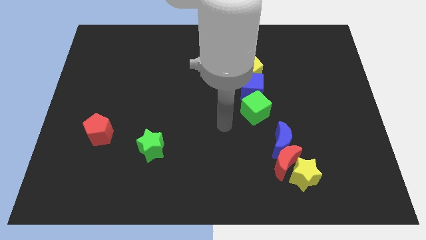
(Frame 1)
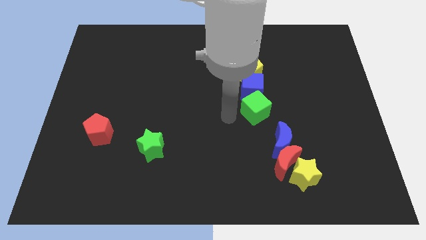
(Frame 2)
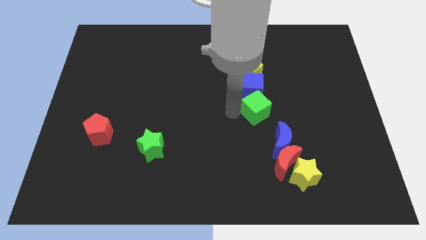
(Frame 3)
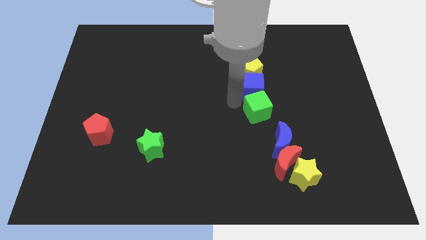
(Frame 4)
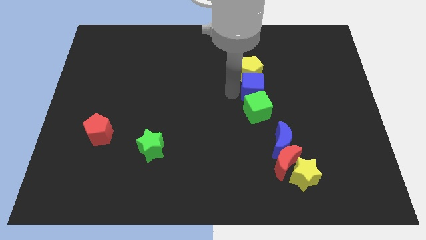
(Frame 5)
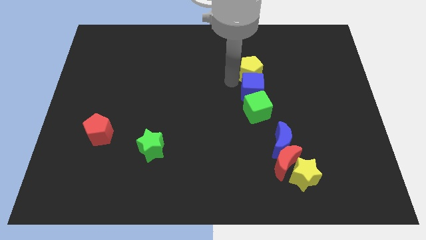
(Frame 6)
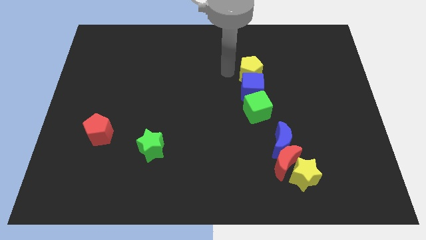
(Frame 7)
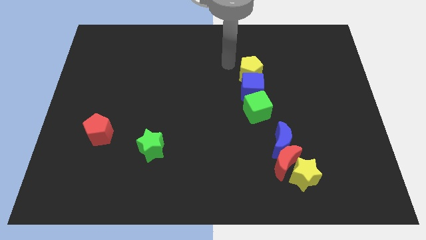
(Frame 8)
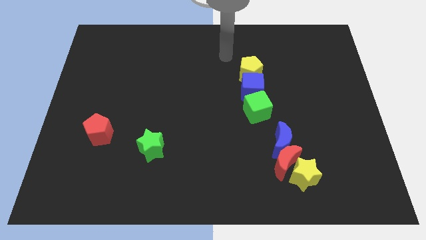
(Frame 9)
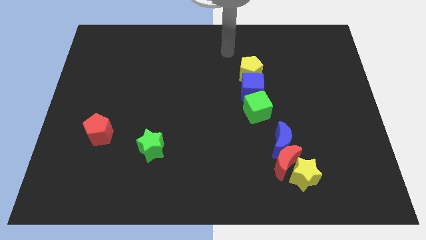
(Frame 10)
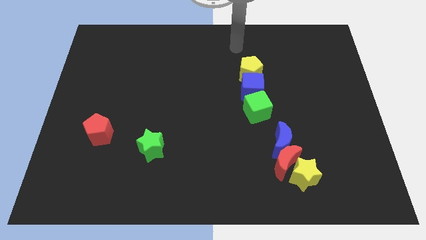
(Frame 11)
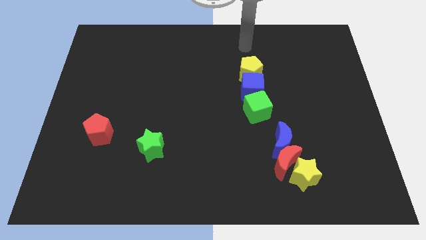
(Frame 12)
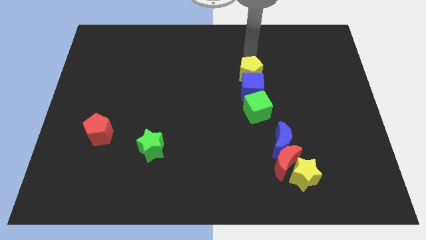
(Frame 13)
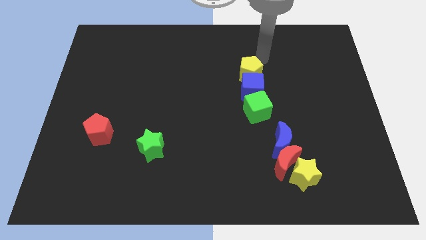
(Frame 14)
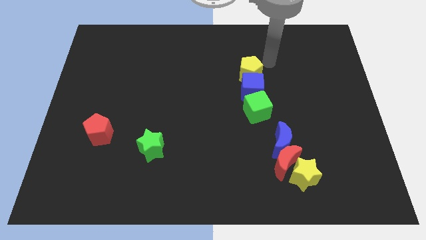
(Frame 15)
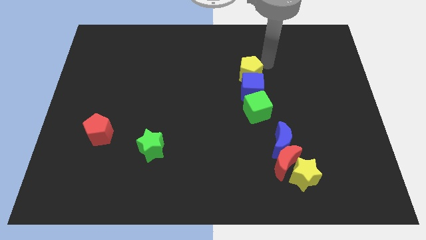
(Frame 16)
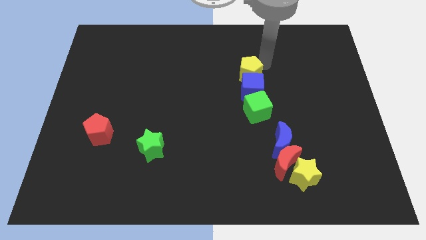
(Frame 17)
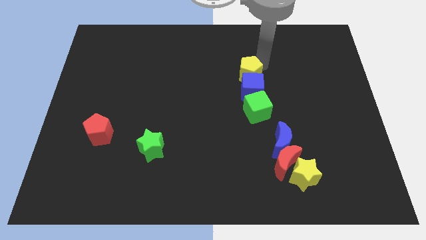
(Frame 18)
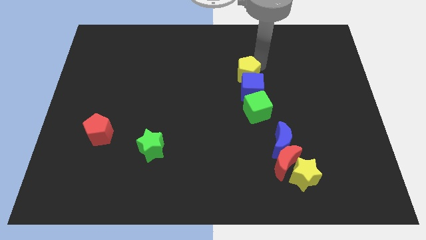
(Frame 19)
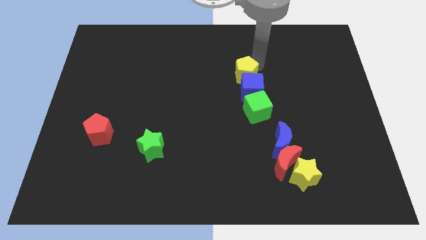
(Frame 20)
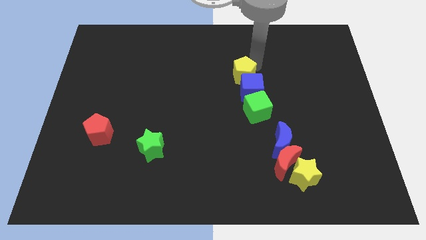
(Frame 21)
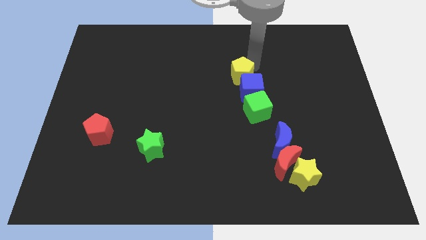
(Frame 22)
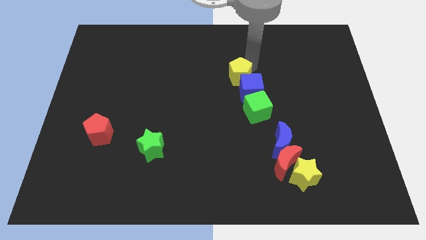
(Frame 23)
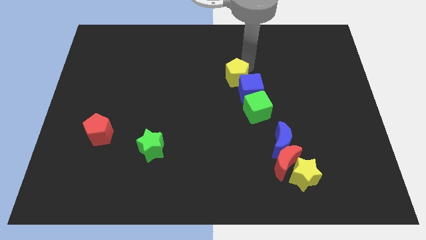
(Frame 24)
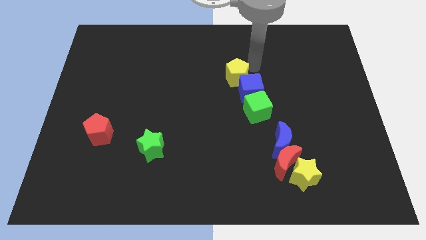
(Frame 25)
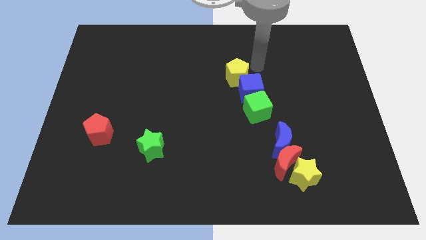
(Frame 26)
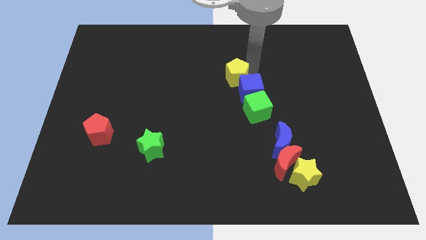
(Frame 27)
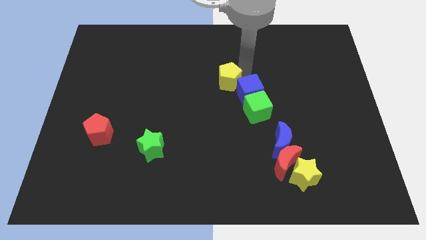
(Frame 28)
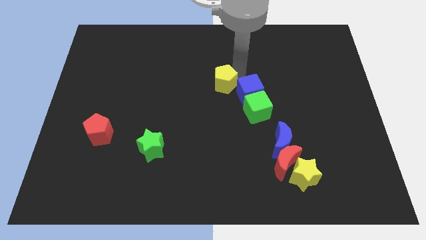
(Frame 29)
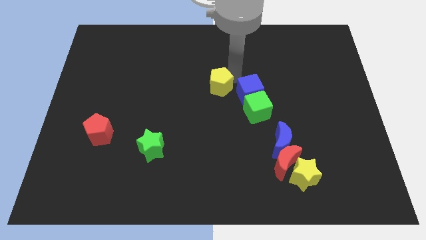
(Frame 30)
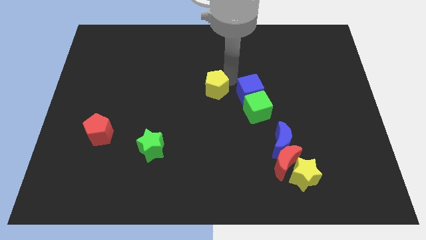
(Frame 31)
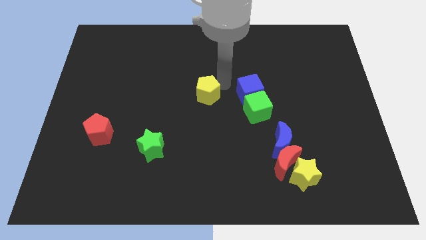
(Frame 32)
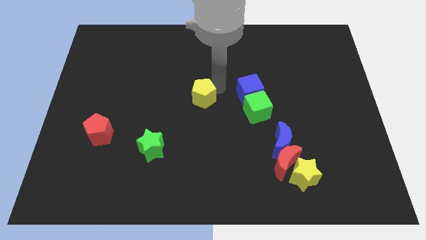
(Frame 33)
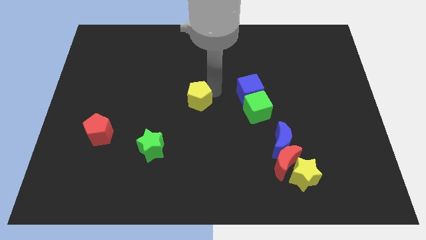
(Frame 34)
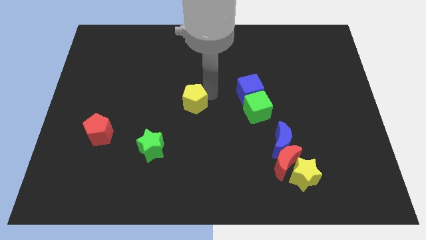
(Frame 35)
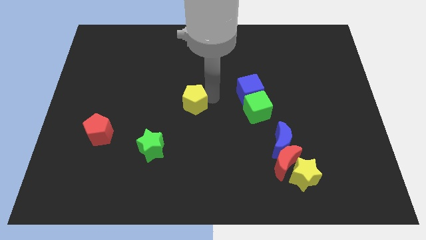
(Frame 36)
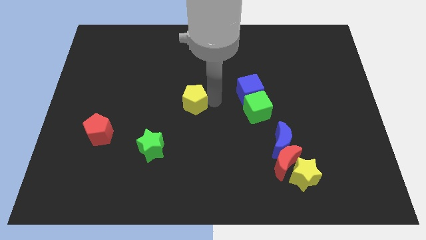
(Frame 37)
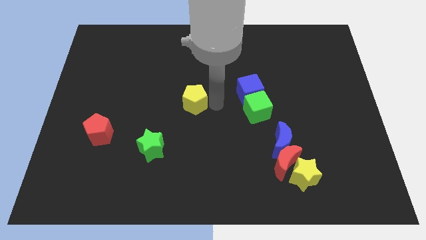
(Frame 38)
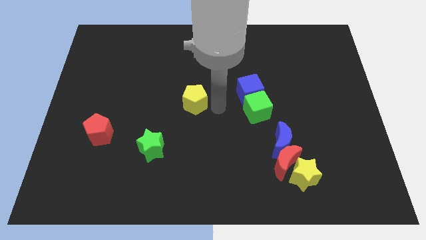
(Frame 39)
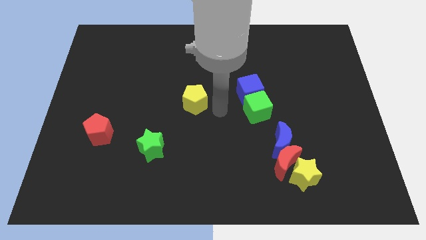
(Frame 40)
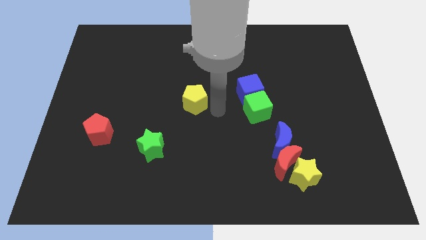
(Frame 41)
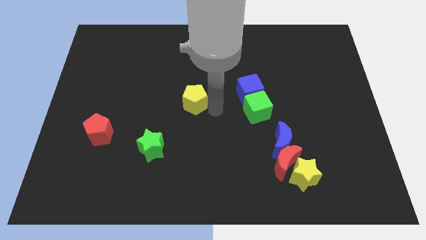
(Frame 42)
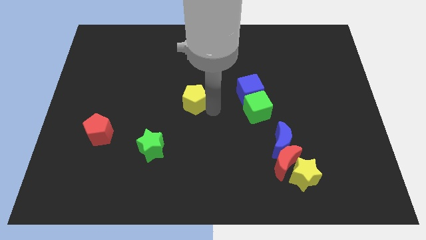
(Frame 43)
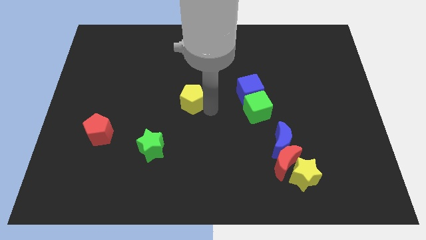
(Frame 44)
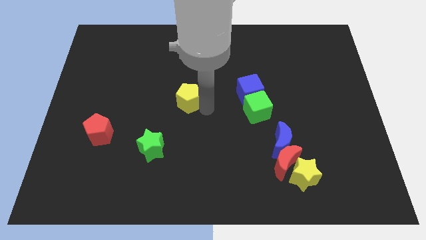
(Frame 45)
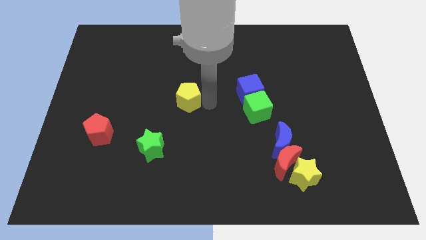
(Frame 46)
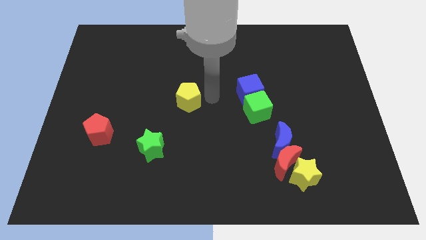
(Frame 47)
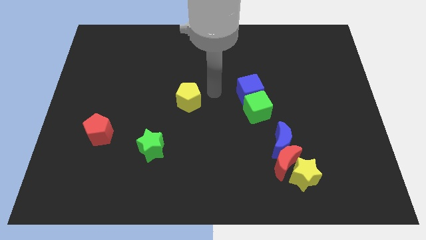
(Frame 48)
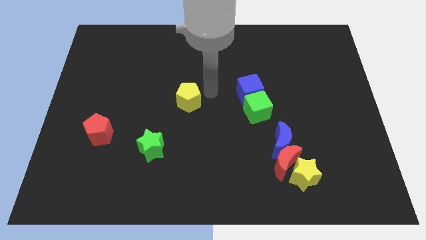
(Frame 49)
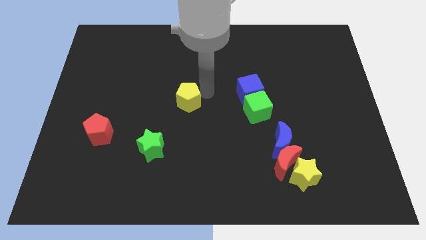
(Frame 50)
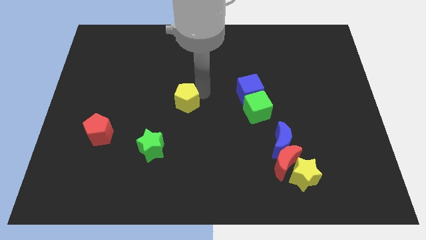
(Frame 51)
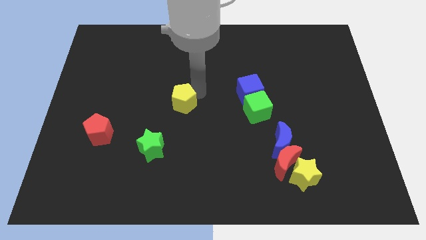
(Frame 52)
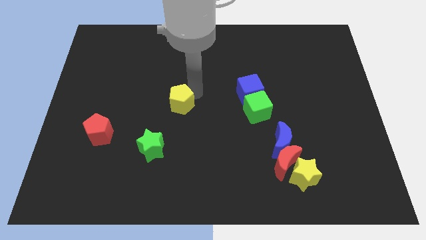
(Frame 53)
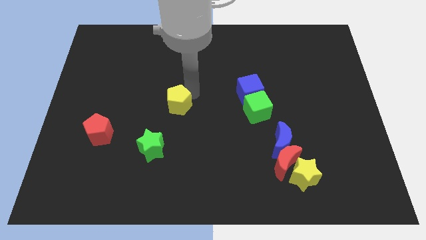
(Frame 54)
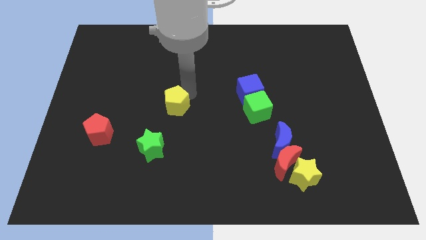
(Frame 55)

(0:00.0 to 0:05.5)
slide the yellow pentagon to the top of the green star

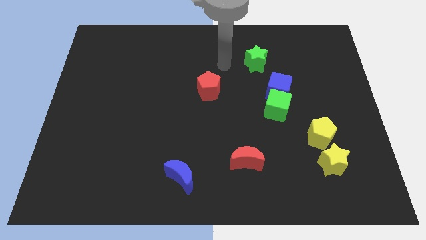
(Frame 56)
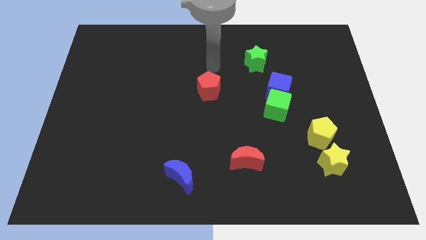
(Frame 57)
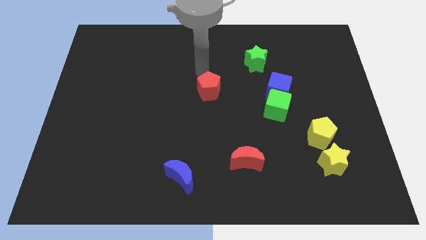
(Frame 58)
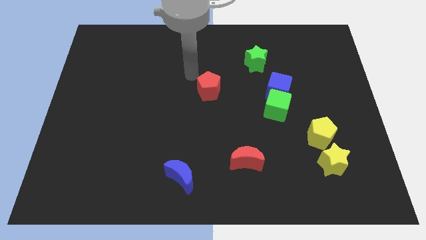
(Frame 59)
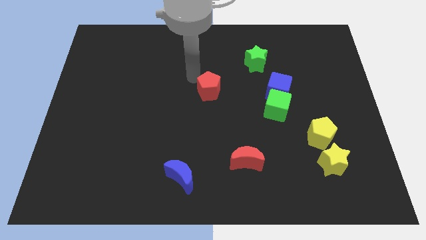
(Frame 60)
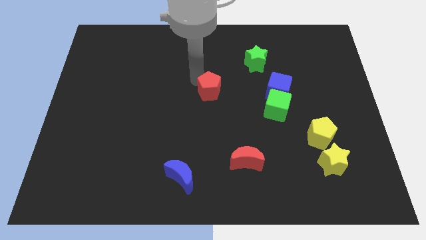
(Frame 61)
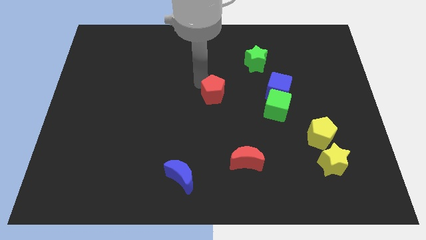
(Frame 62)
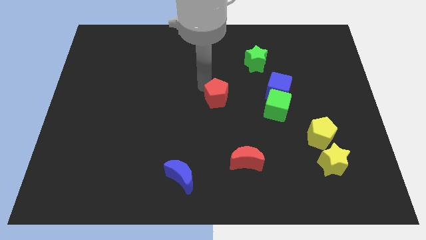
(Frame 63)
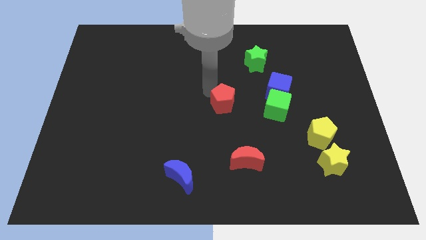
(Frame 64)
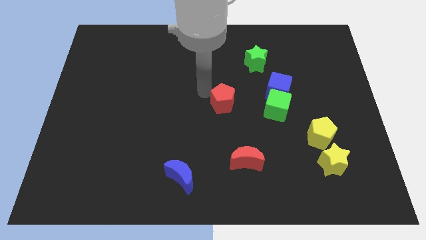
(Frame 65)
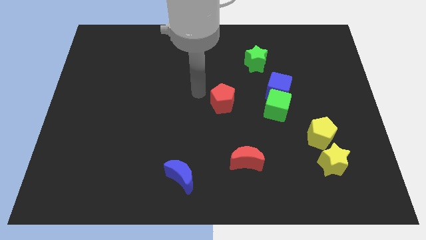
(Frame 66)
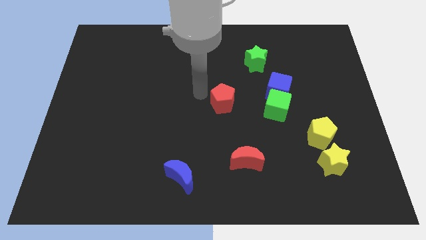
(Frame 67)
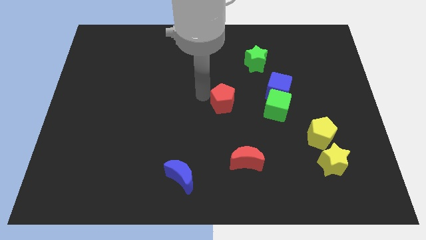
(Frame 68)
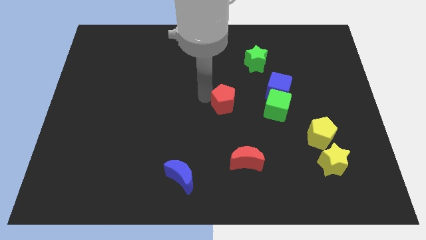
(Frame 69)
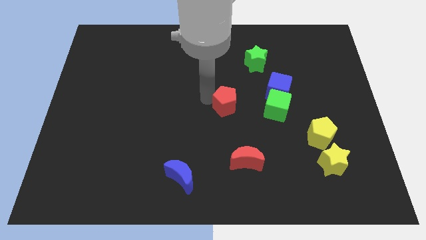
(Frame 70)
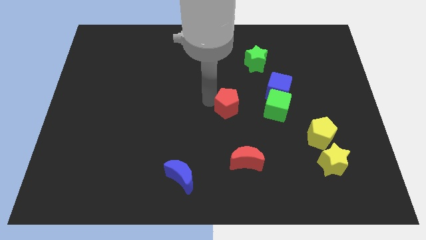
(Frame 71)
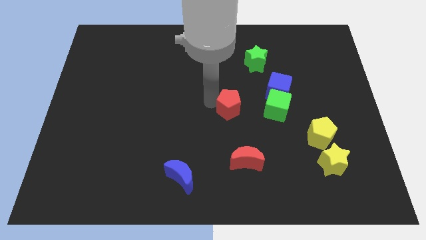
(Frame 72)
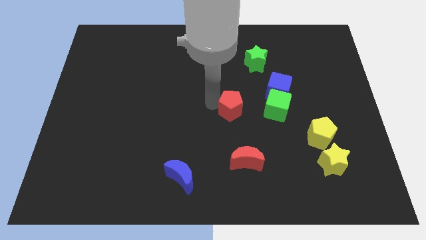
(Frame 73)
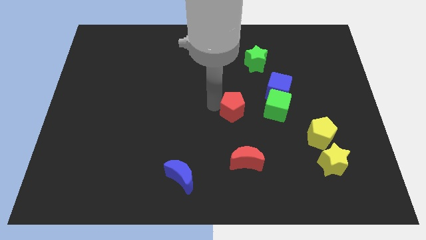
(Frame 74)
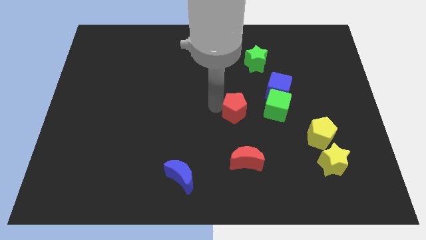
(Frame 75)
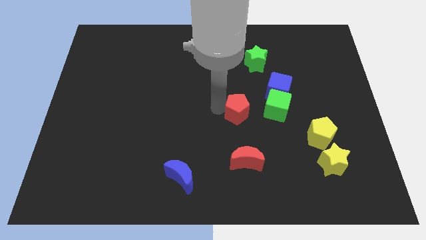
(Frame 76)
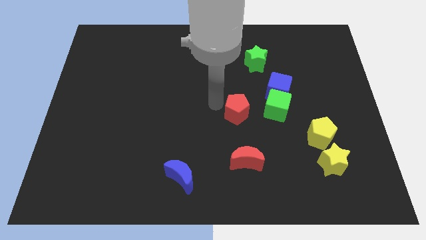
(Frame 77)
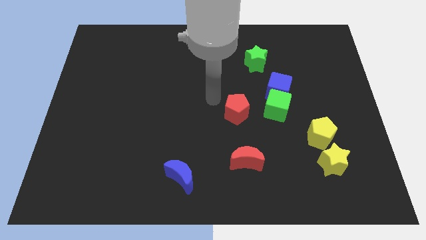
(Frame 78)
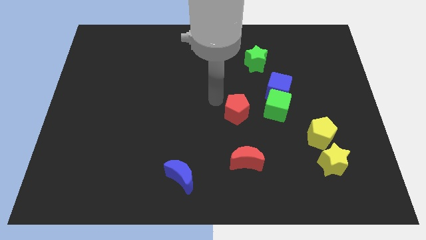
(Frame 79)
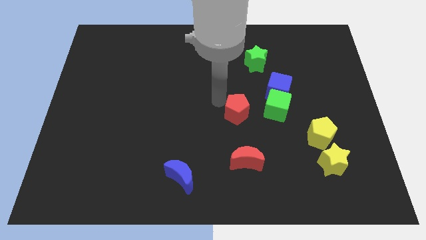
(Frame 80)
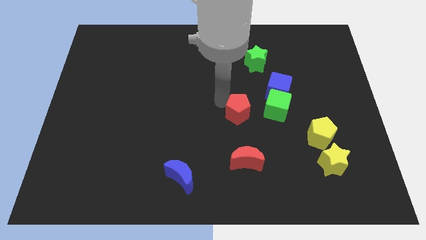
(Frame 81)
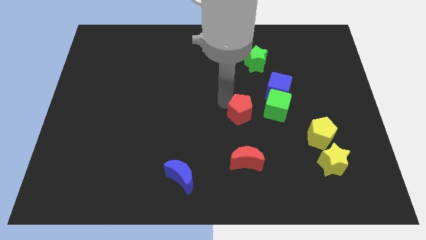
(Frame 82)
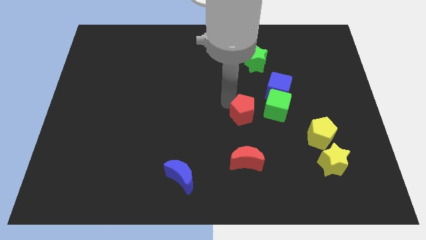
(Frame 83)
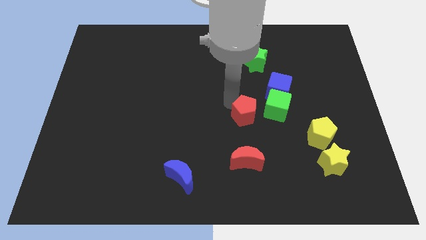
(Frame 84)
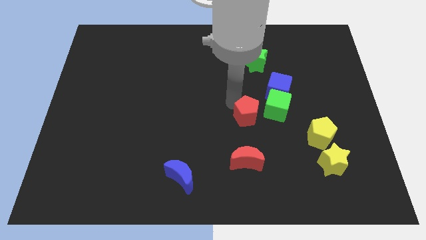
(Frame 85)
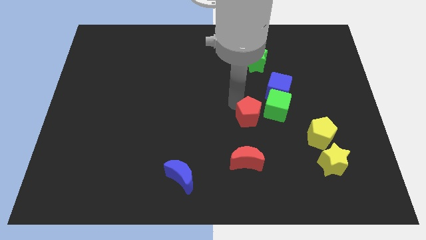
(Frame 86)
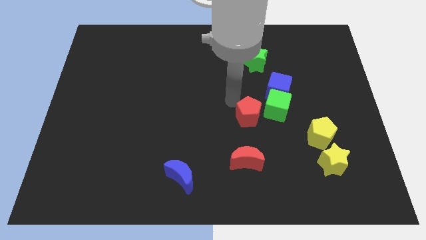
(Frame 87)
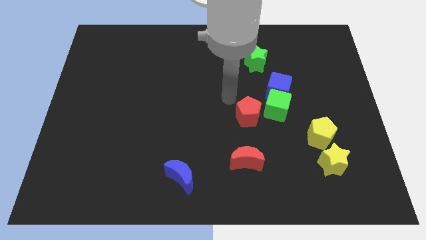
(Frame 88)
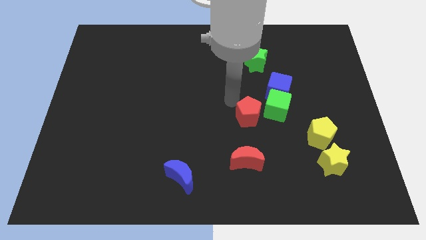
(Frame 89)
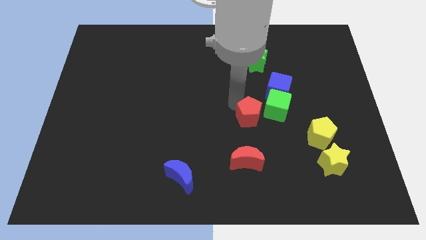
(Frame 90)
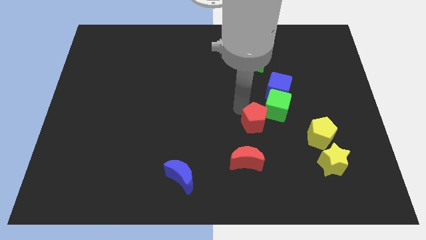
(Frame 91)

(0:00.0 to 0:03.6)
slide the red pentagon left of the yellow pentagon
